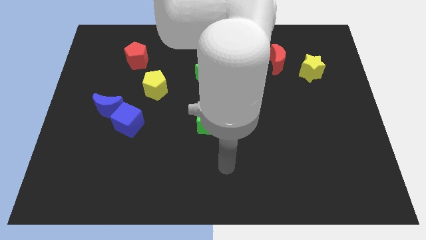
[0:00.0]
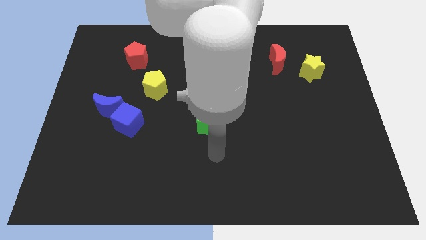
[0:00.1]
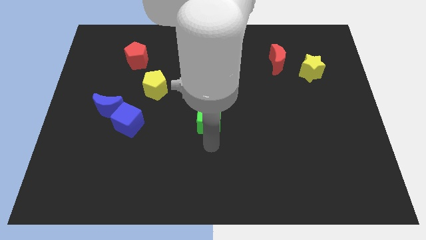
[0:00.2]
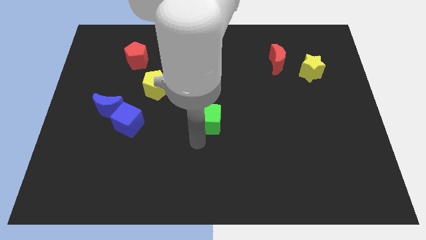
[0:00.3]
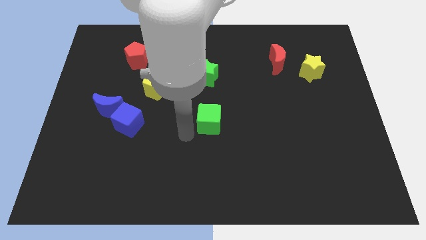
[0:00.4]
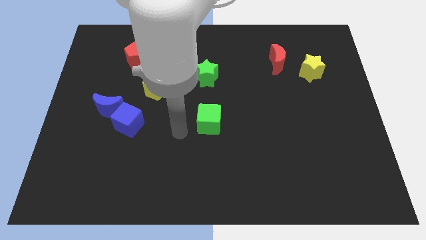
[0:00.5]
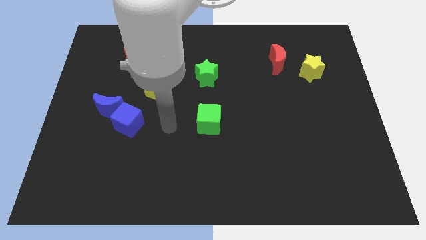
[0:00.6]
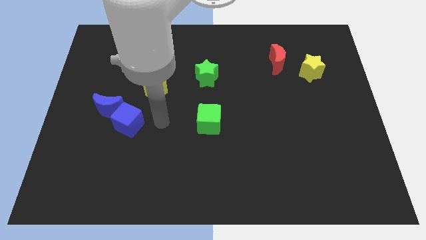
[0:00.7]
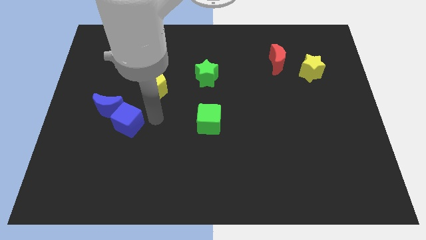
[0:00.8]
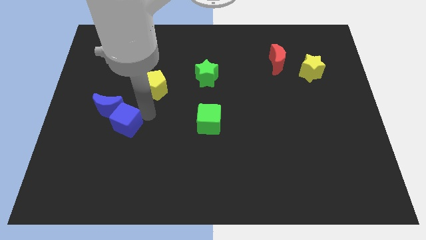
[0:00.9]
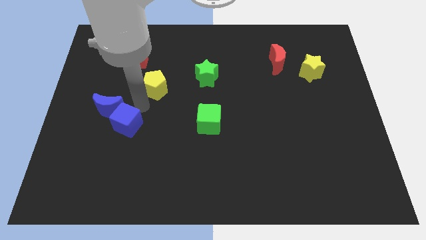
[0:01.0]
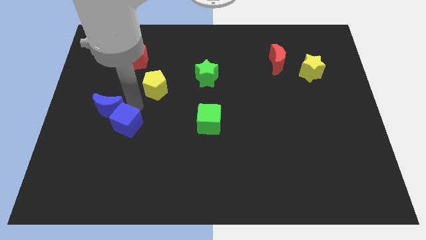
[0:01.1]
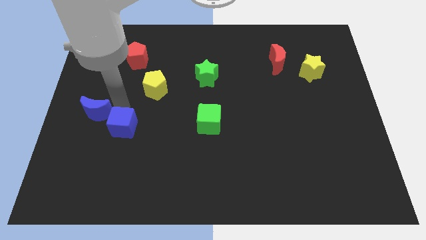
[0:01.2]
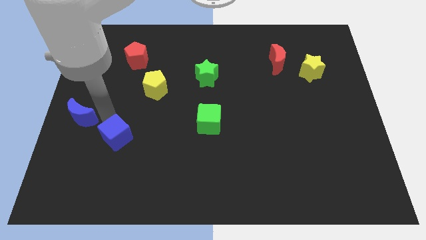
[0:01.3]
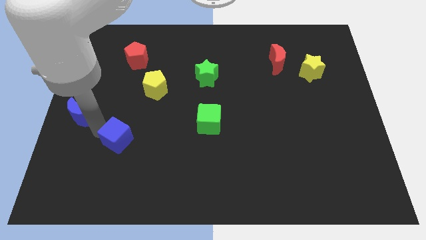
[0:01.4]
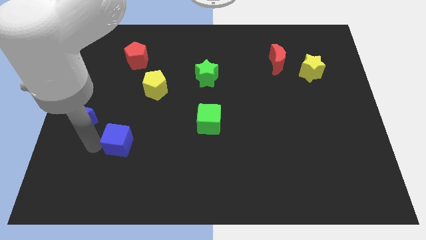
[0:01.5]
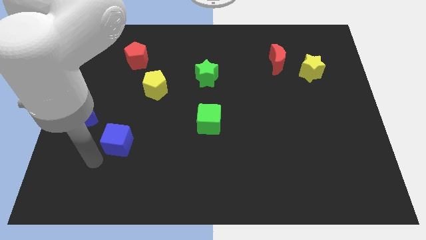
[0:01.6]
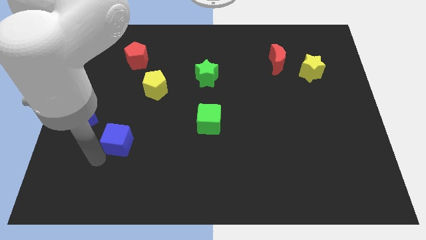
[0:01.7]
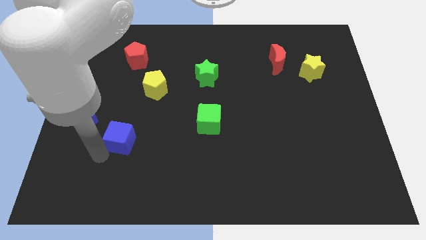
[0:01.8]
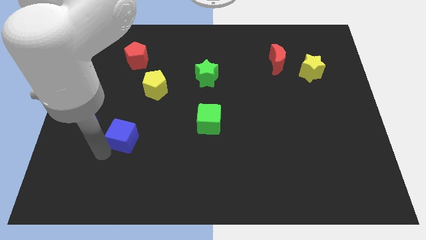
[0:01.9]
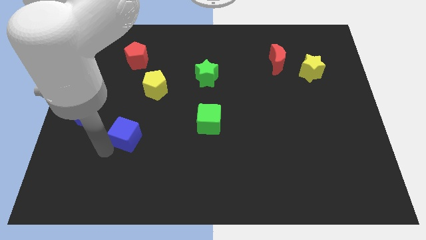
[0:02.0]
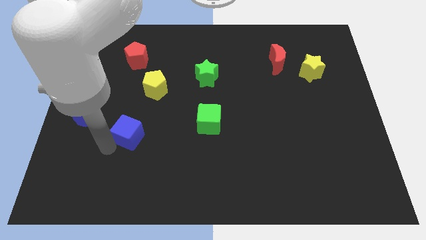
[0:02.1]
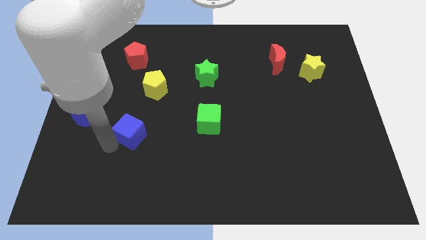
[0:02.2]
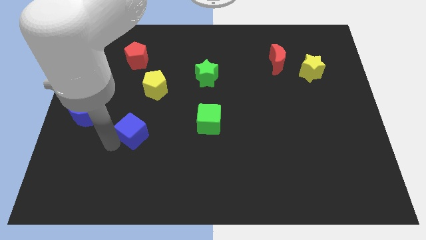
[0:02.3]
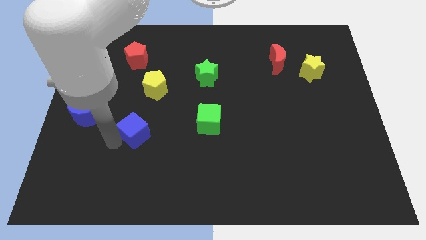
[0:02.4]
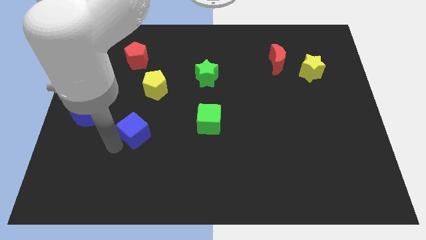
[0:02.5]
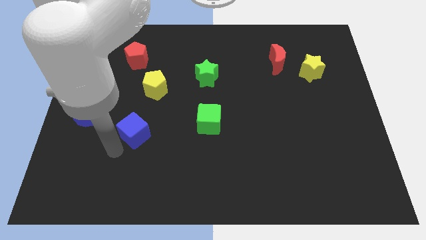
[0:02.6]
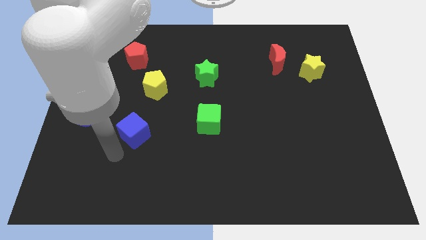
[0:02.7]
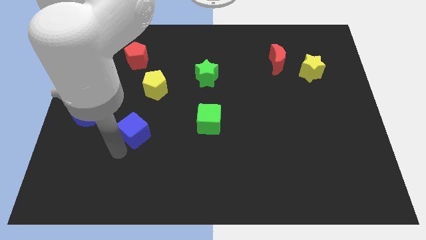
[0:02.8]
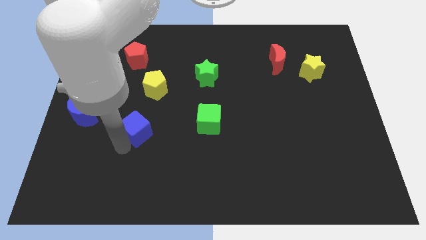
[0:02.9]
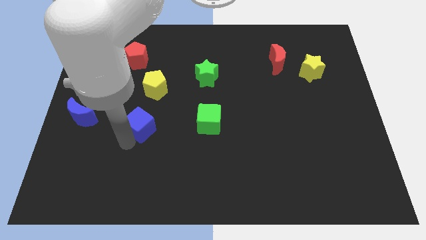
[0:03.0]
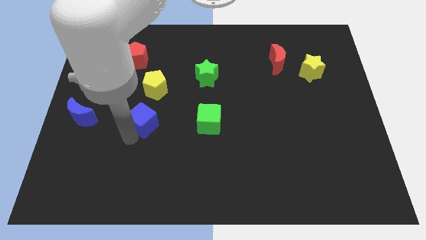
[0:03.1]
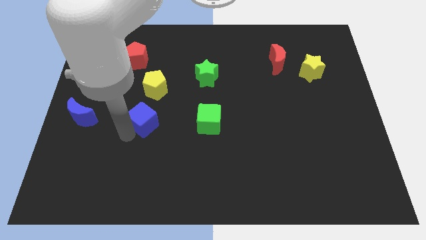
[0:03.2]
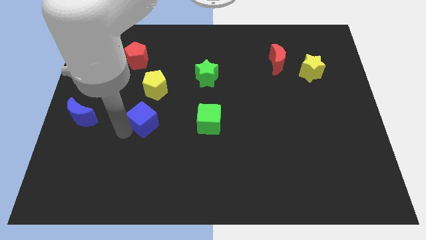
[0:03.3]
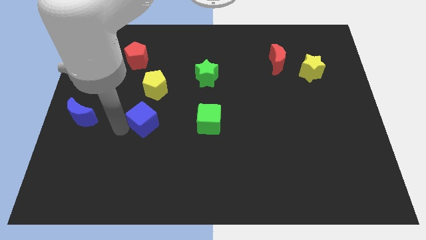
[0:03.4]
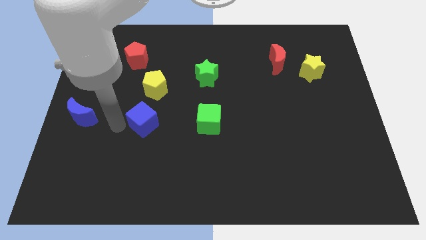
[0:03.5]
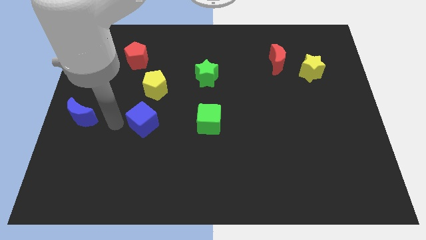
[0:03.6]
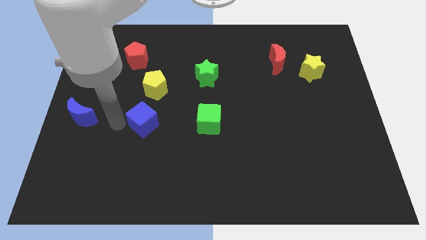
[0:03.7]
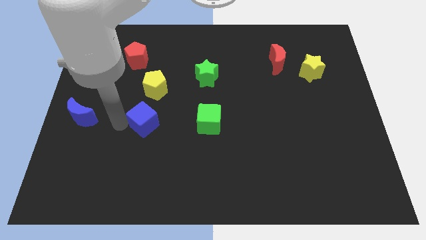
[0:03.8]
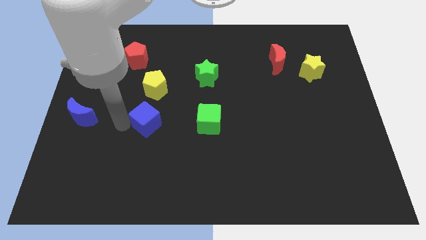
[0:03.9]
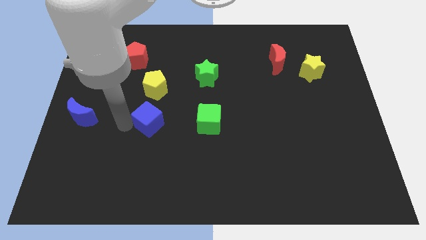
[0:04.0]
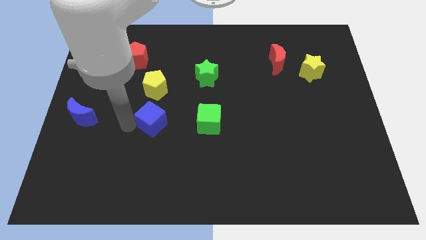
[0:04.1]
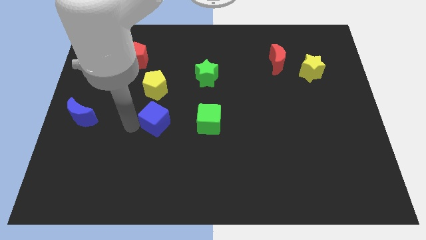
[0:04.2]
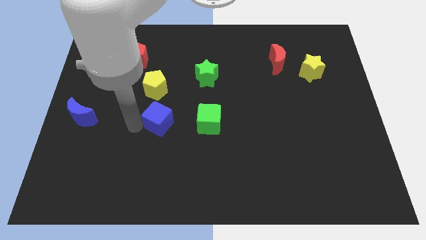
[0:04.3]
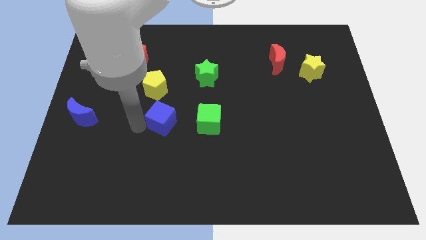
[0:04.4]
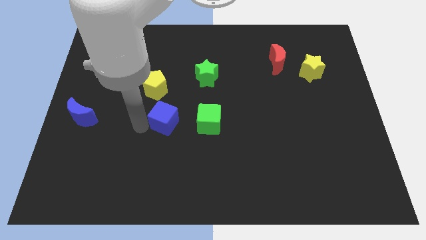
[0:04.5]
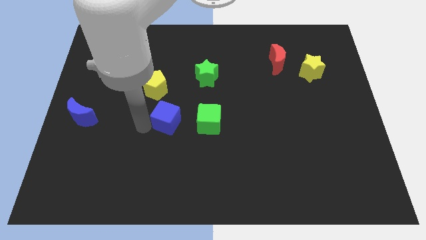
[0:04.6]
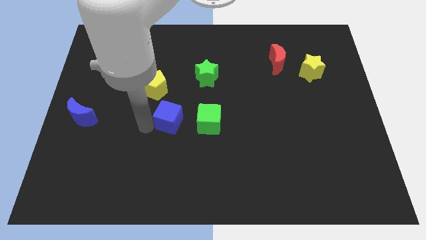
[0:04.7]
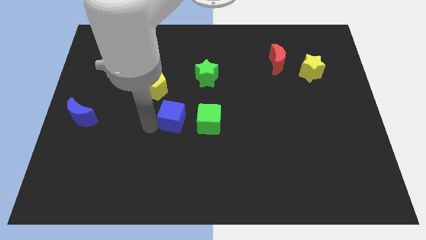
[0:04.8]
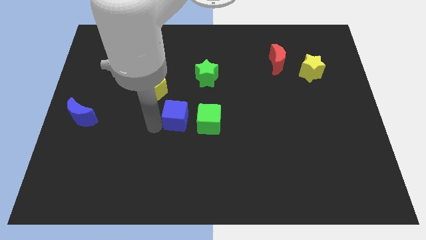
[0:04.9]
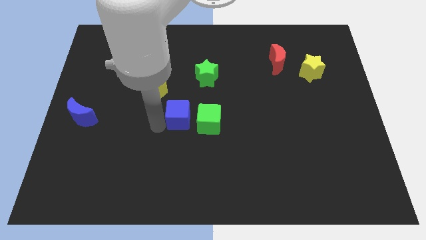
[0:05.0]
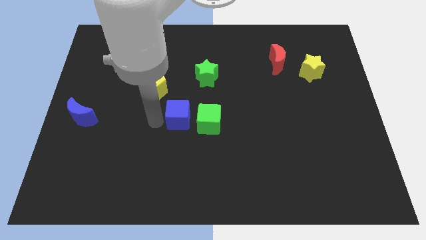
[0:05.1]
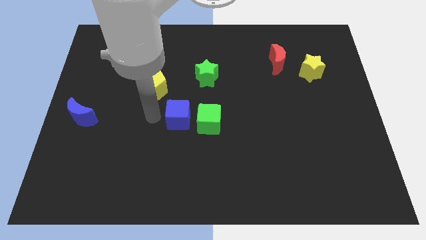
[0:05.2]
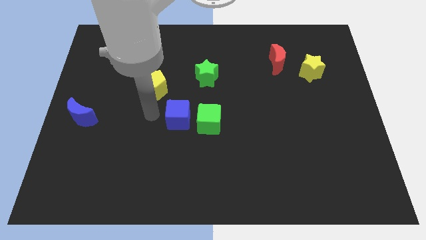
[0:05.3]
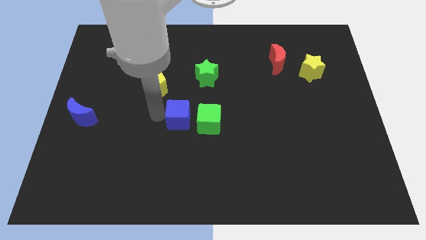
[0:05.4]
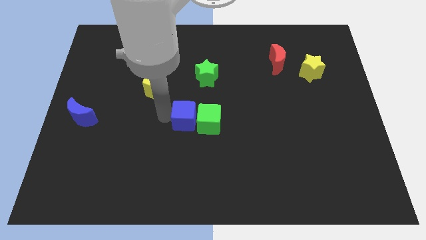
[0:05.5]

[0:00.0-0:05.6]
push the blue cube to the green cube

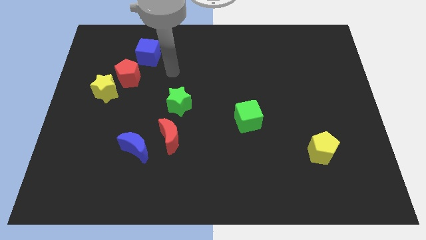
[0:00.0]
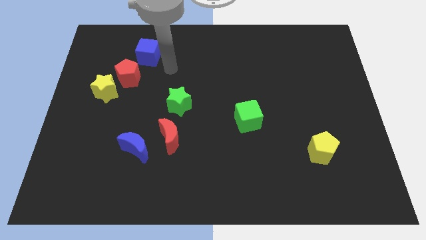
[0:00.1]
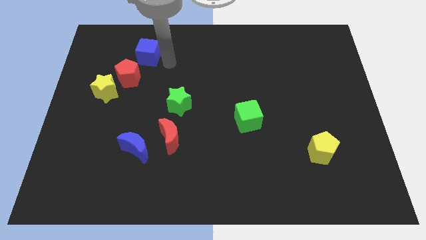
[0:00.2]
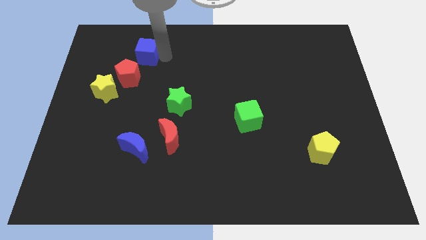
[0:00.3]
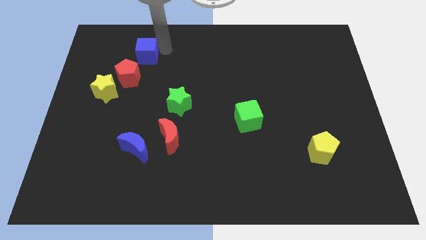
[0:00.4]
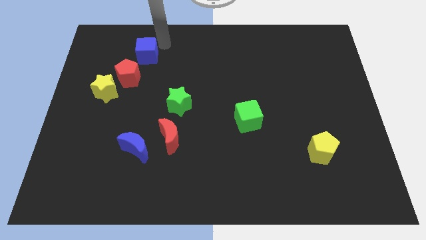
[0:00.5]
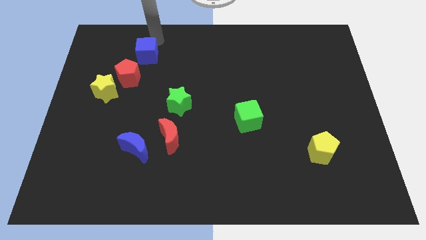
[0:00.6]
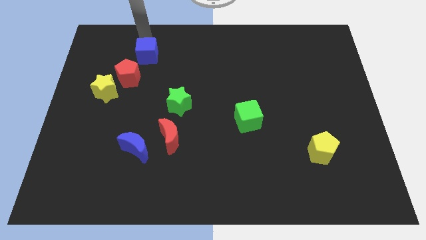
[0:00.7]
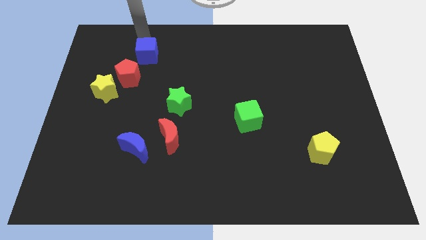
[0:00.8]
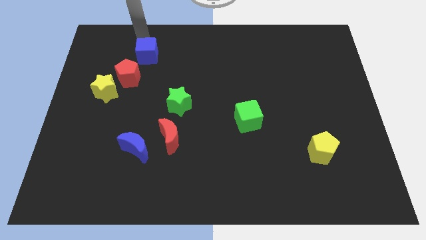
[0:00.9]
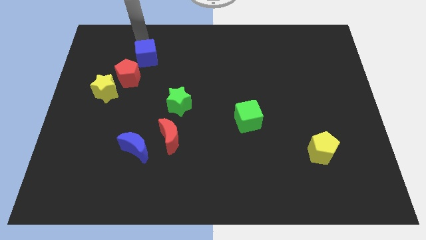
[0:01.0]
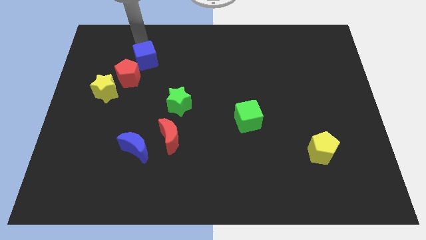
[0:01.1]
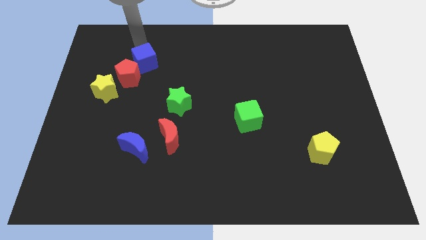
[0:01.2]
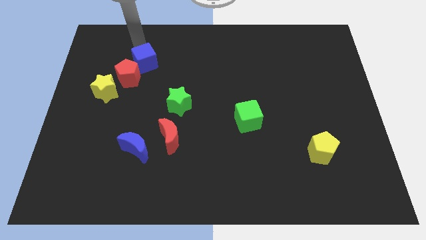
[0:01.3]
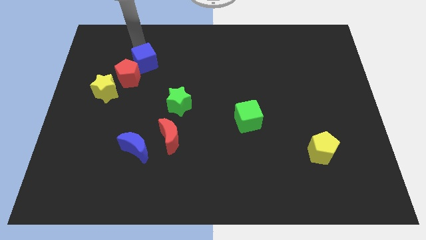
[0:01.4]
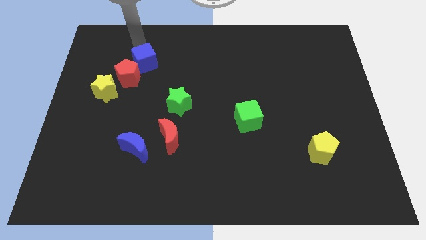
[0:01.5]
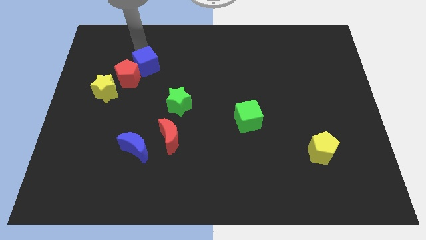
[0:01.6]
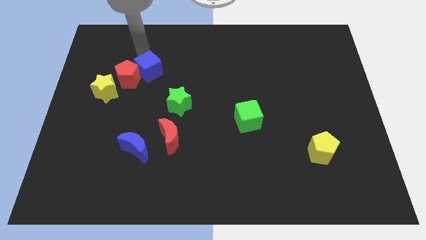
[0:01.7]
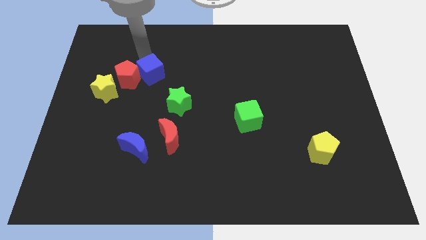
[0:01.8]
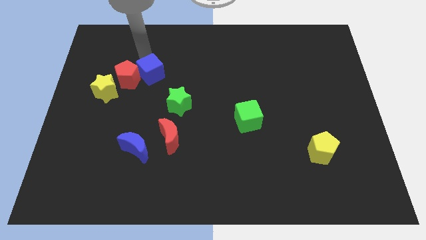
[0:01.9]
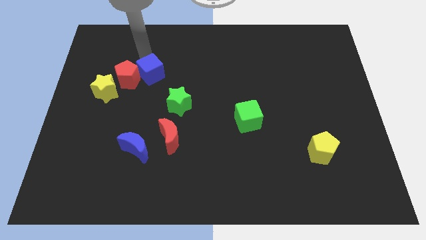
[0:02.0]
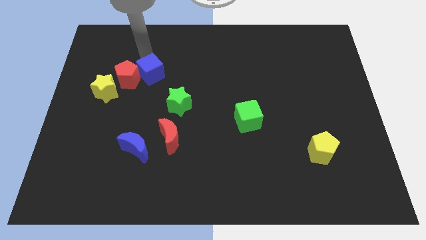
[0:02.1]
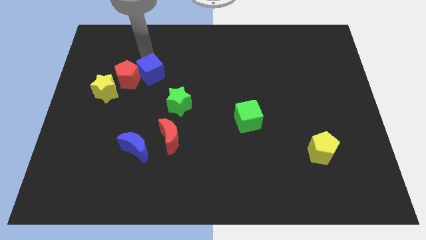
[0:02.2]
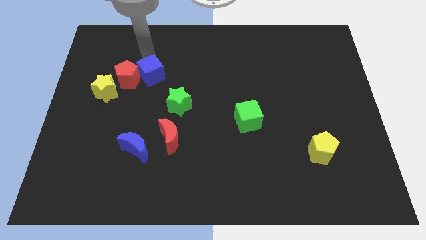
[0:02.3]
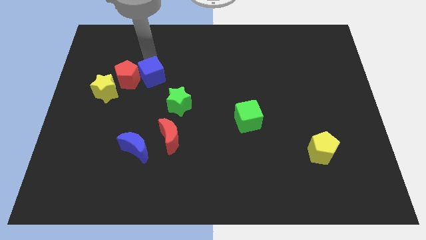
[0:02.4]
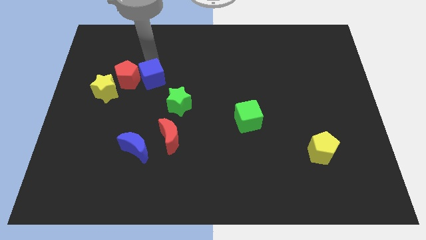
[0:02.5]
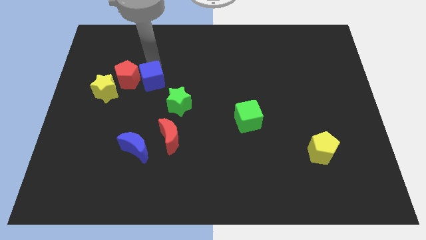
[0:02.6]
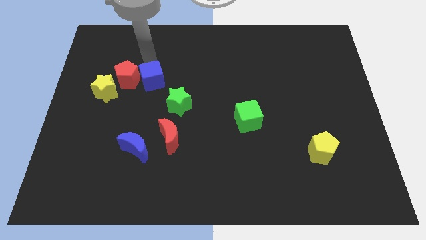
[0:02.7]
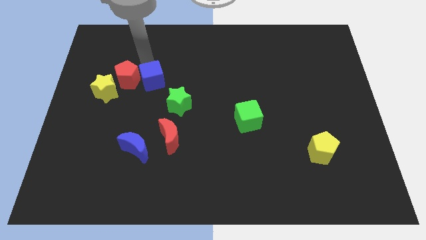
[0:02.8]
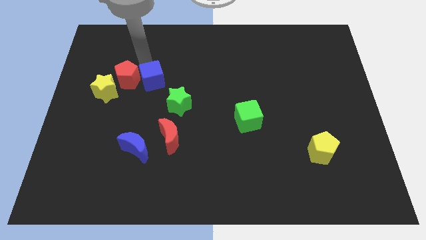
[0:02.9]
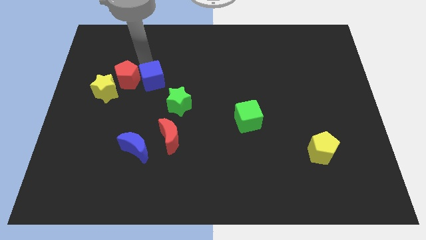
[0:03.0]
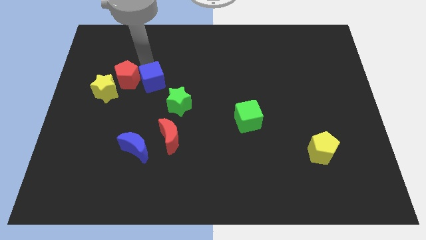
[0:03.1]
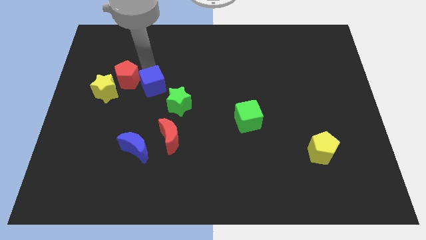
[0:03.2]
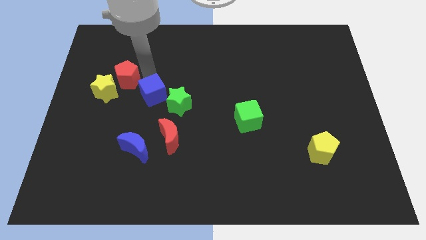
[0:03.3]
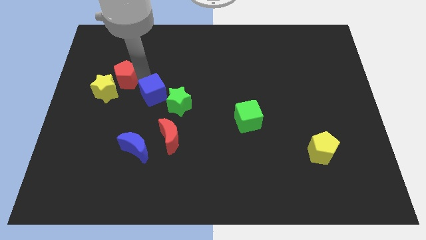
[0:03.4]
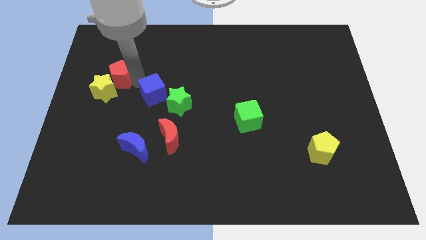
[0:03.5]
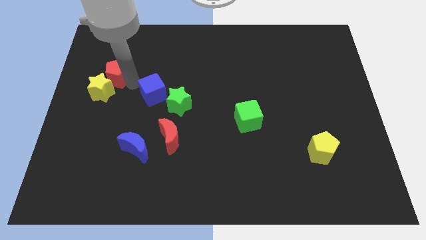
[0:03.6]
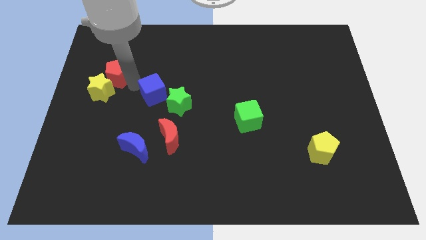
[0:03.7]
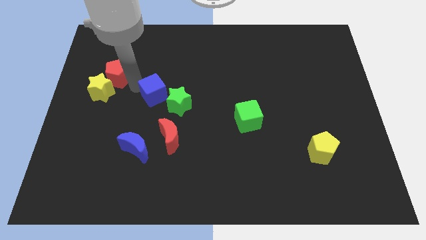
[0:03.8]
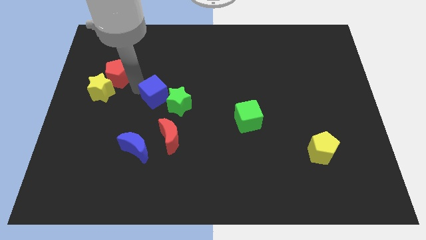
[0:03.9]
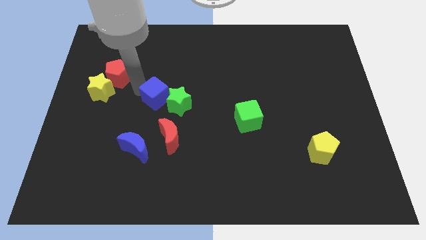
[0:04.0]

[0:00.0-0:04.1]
move the blue cube towards the green star
